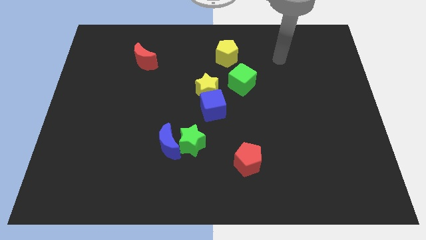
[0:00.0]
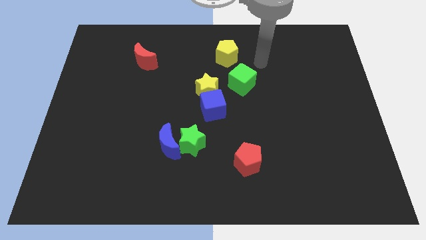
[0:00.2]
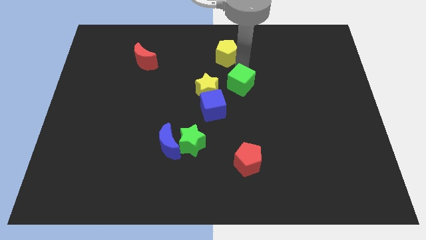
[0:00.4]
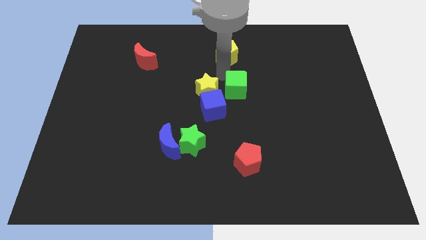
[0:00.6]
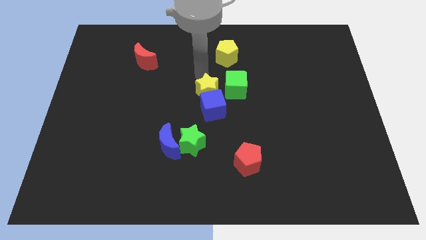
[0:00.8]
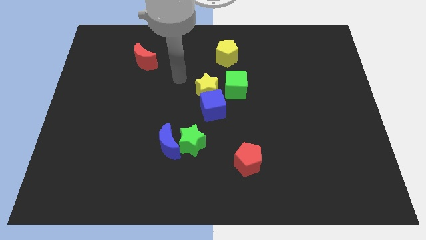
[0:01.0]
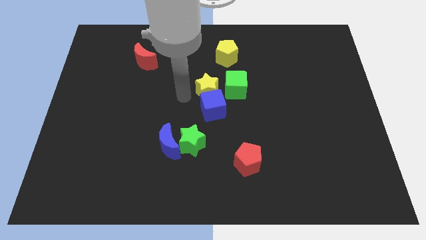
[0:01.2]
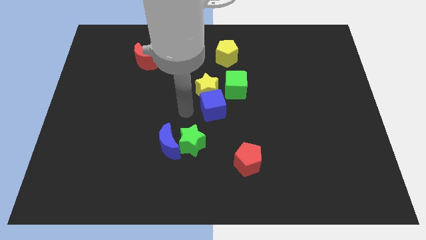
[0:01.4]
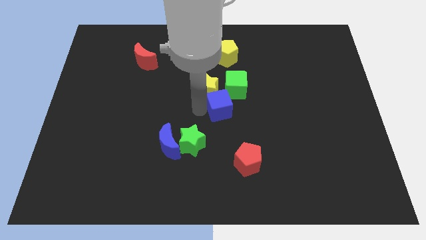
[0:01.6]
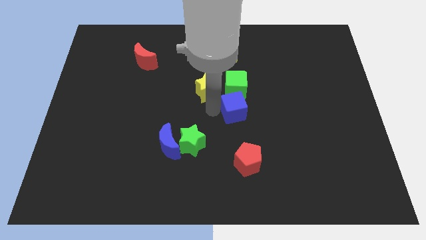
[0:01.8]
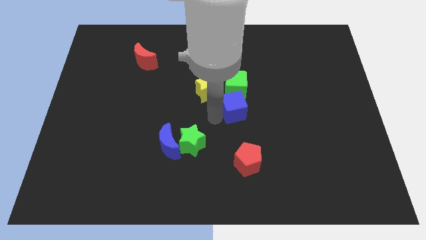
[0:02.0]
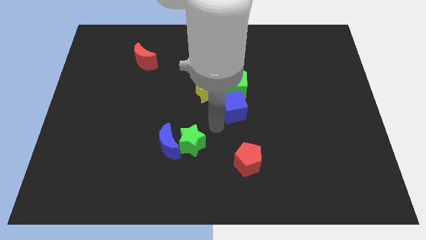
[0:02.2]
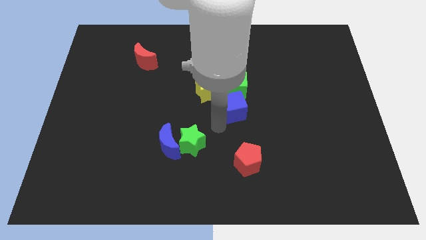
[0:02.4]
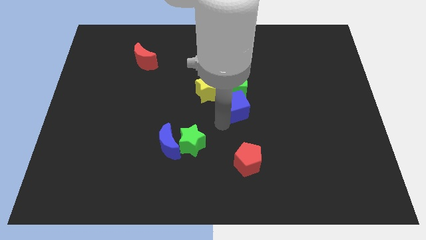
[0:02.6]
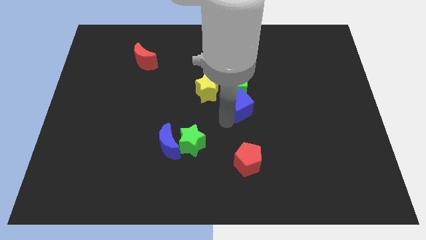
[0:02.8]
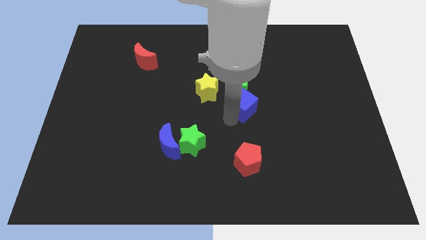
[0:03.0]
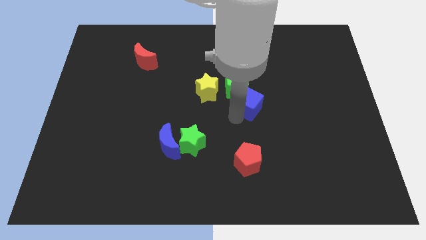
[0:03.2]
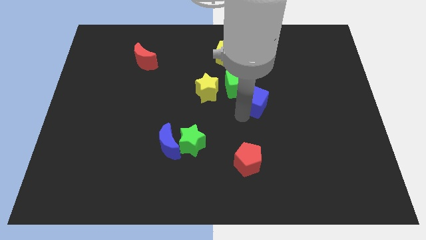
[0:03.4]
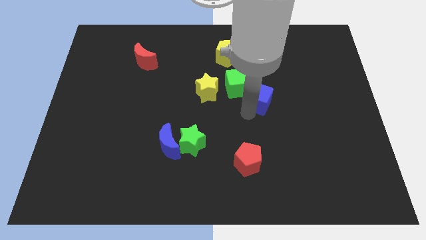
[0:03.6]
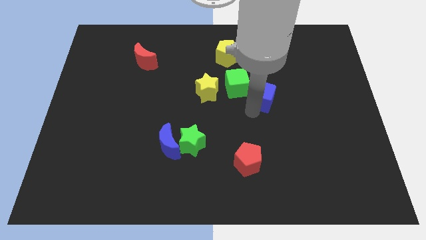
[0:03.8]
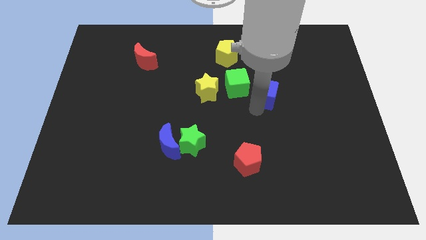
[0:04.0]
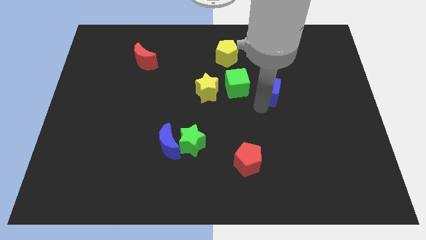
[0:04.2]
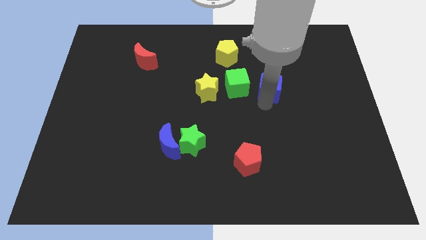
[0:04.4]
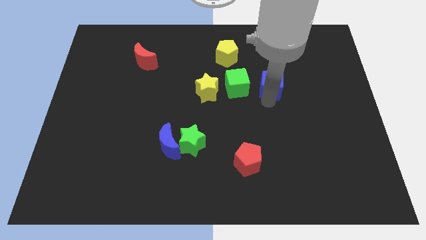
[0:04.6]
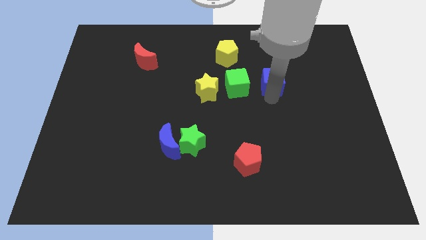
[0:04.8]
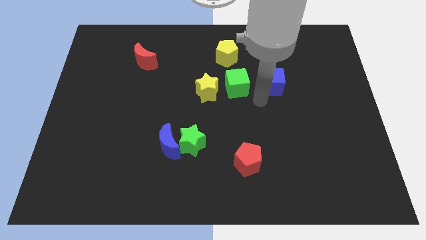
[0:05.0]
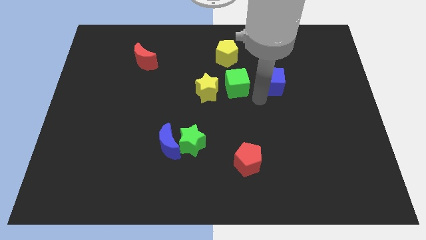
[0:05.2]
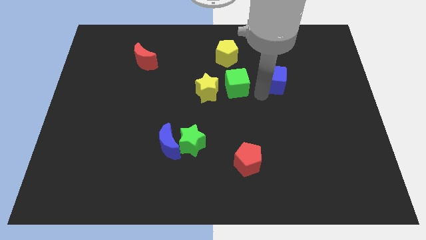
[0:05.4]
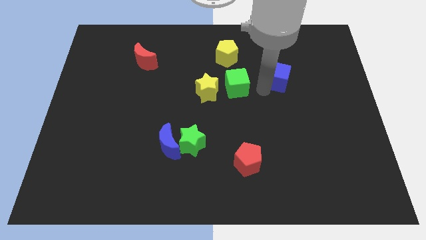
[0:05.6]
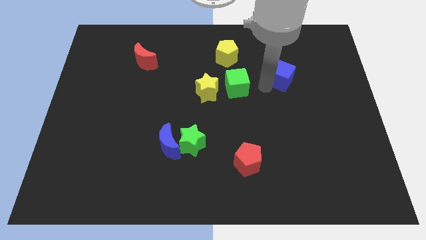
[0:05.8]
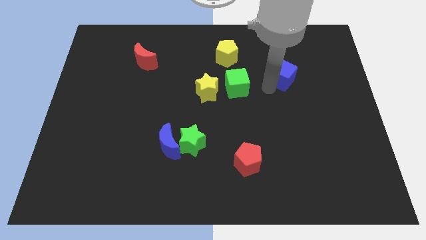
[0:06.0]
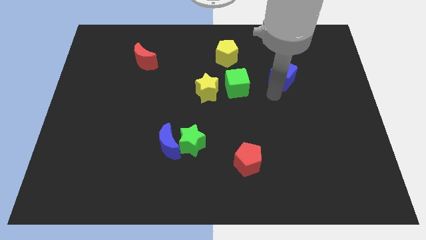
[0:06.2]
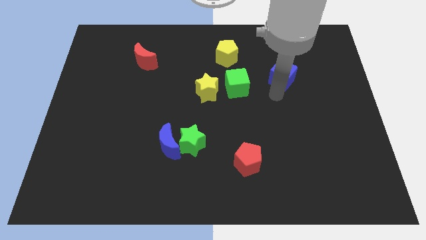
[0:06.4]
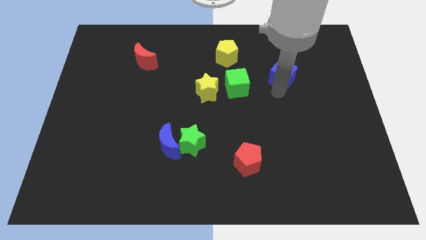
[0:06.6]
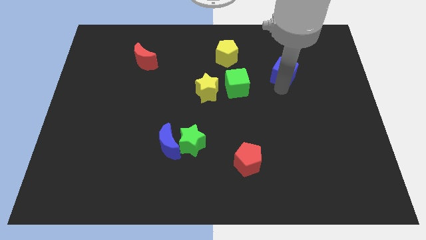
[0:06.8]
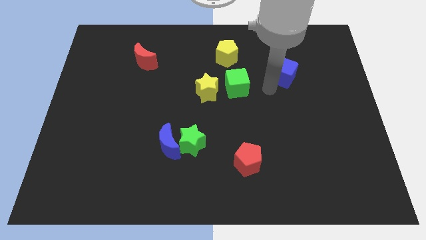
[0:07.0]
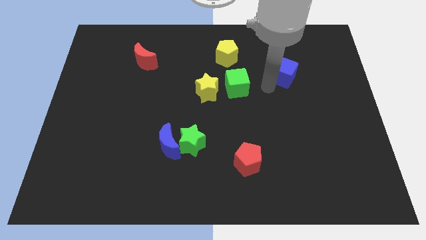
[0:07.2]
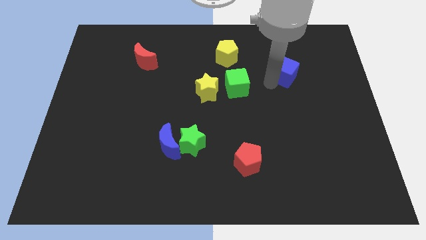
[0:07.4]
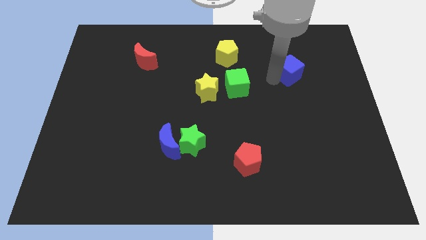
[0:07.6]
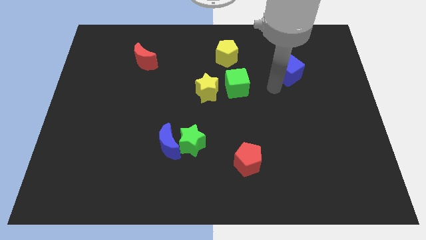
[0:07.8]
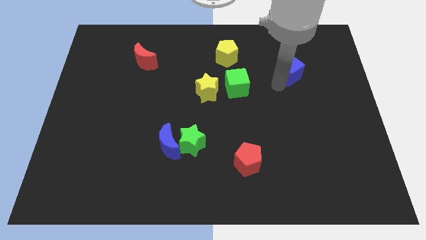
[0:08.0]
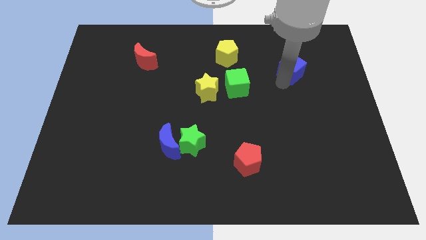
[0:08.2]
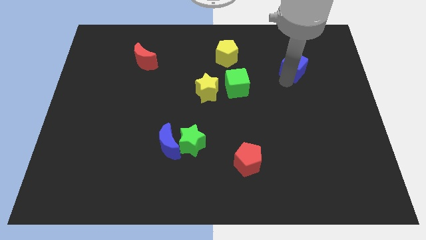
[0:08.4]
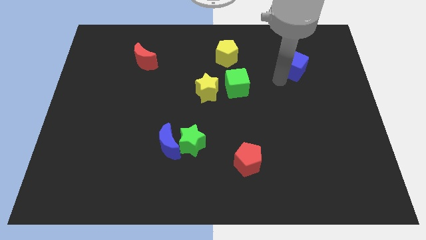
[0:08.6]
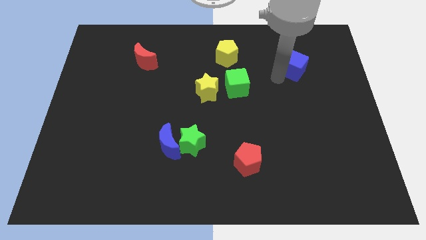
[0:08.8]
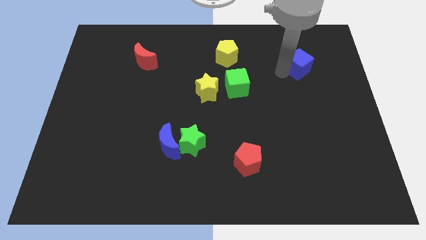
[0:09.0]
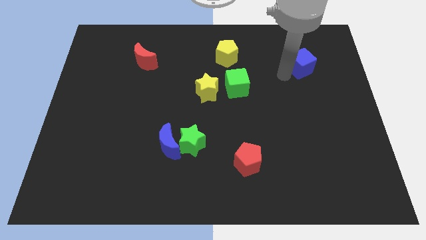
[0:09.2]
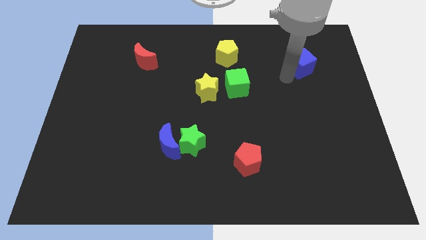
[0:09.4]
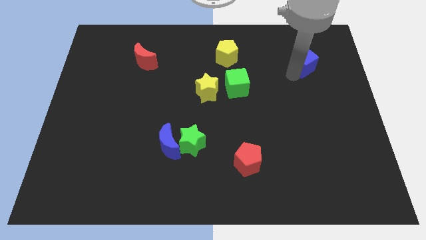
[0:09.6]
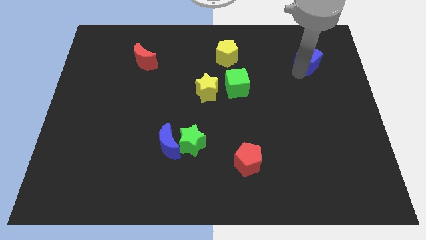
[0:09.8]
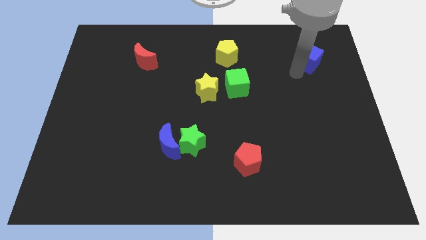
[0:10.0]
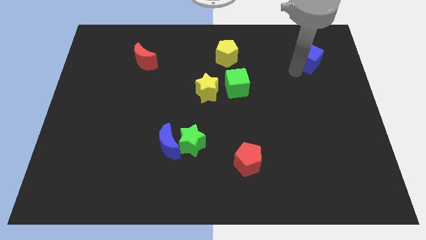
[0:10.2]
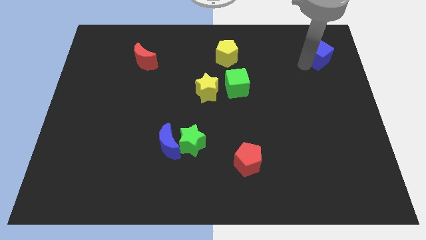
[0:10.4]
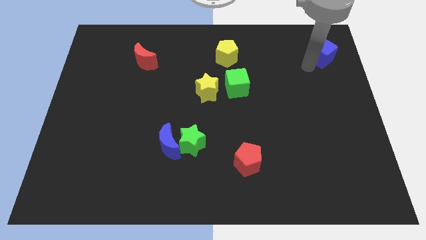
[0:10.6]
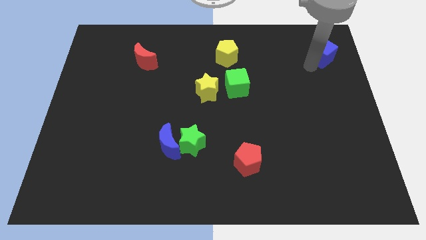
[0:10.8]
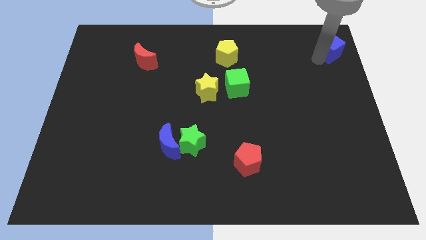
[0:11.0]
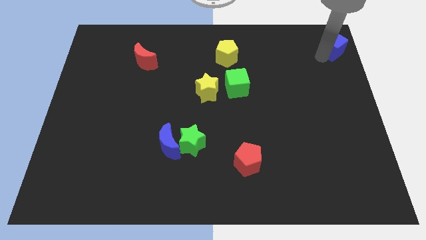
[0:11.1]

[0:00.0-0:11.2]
move the blue cube to the top right

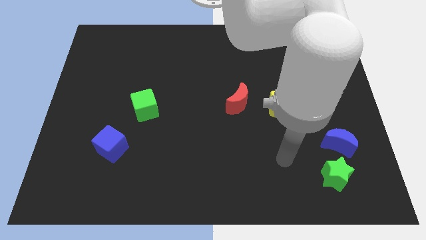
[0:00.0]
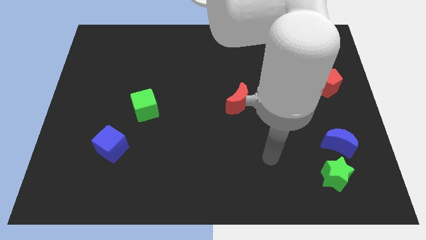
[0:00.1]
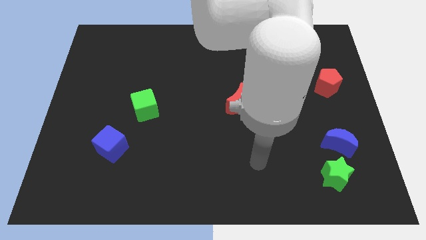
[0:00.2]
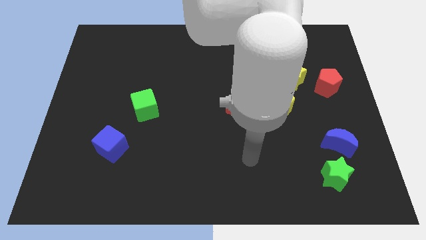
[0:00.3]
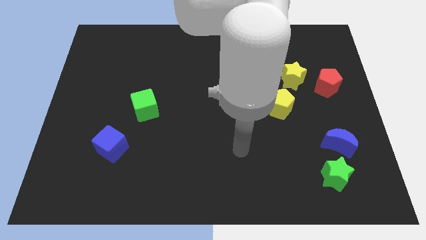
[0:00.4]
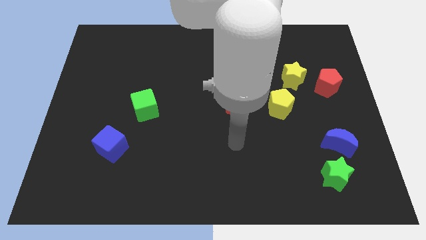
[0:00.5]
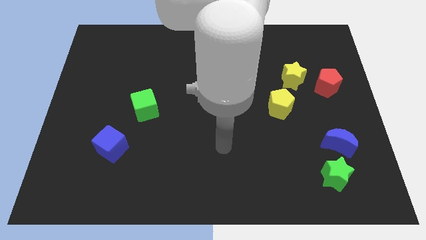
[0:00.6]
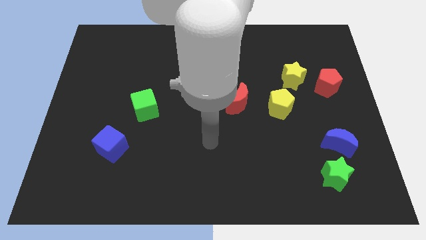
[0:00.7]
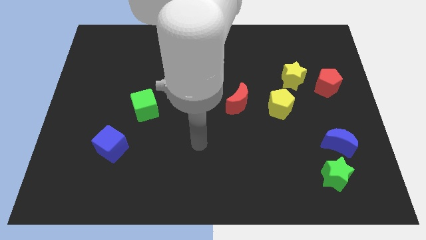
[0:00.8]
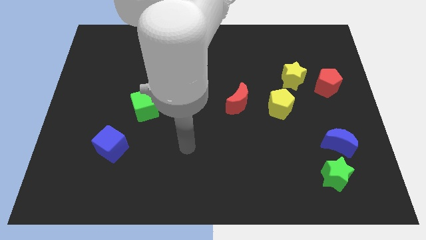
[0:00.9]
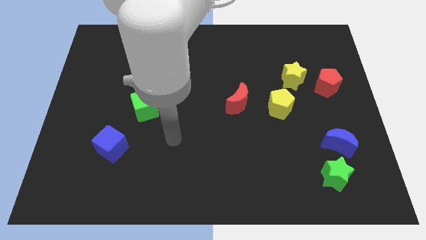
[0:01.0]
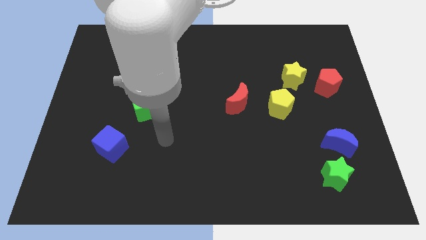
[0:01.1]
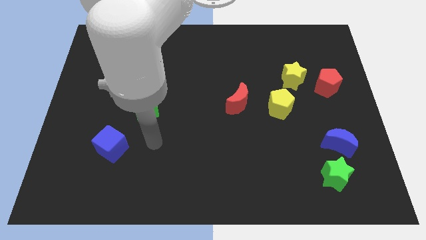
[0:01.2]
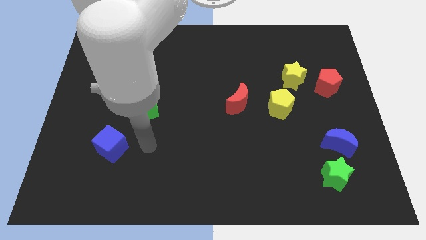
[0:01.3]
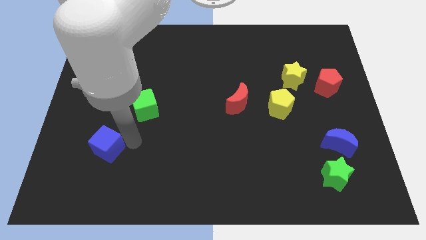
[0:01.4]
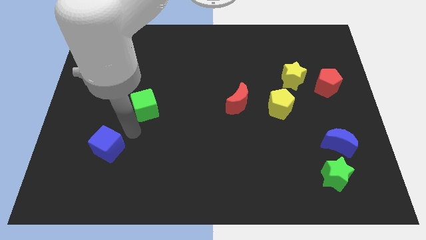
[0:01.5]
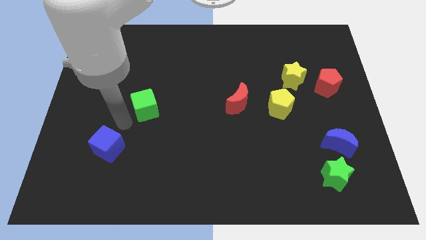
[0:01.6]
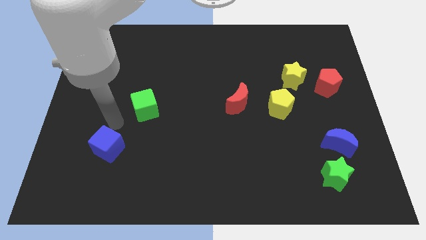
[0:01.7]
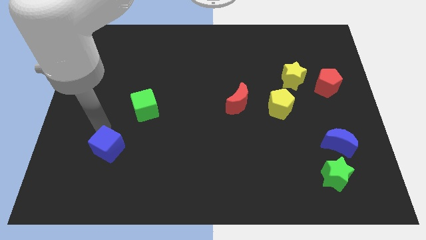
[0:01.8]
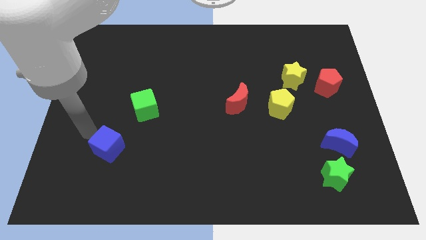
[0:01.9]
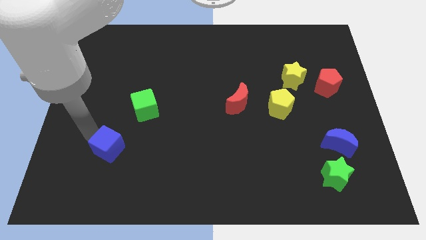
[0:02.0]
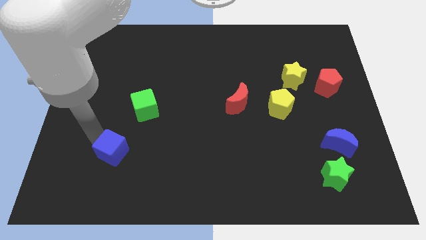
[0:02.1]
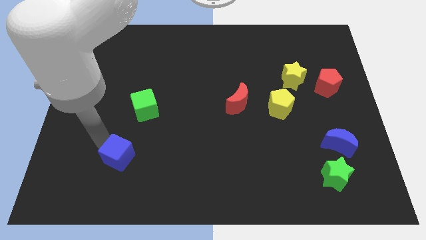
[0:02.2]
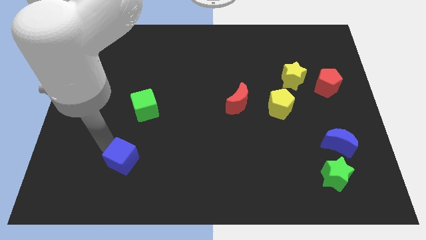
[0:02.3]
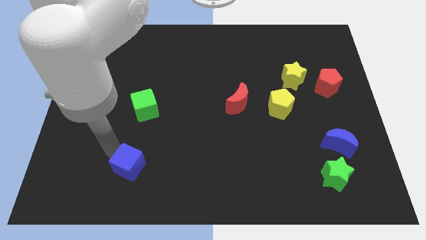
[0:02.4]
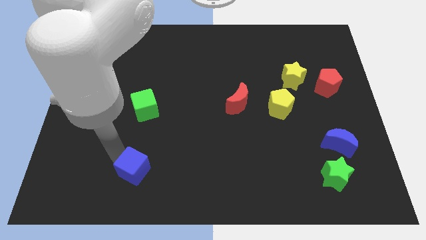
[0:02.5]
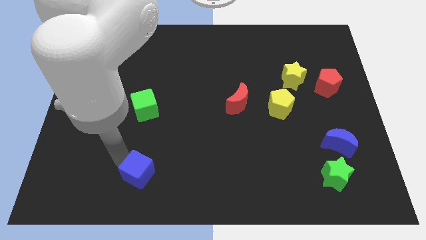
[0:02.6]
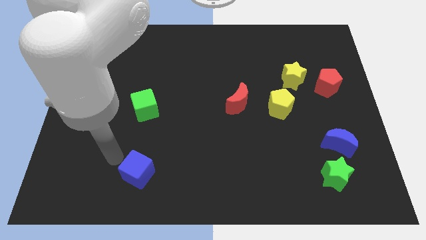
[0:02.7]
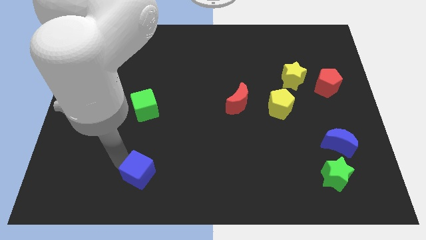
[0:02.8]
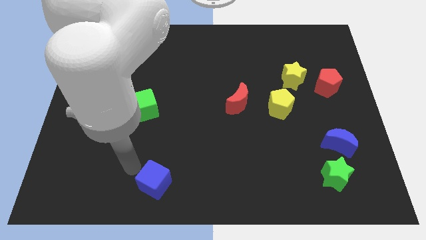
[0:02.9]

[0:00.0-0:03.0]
slide the blue cube to the bottom
